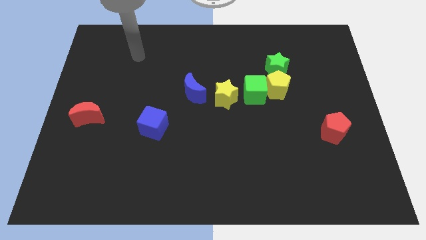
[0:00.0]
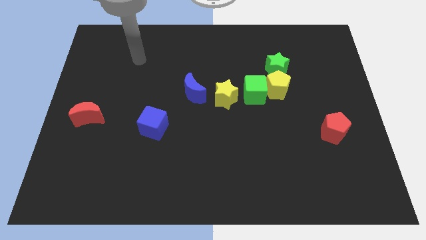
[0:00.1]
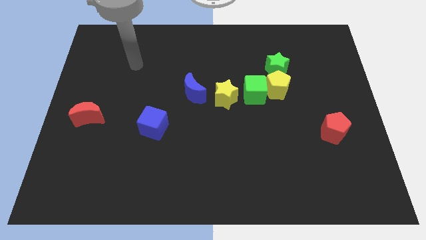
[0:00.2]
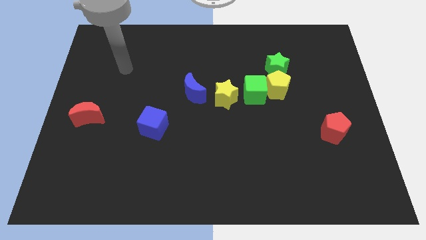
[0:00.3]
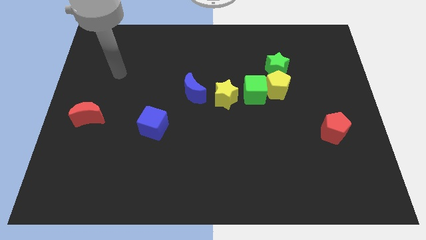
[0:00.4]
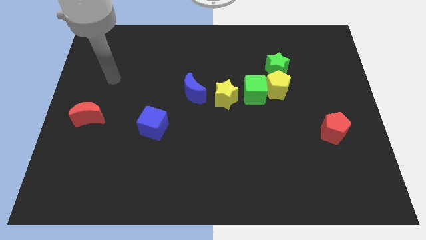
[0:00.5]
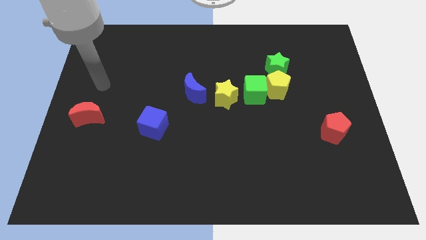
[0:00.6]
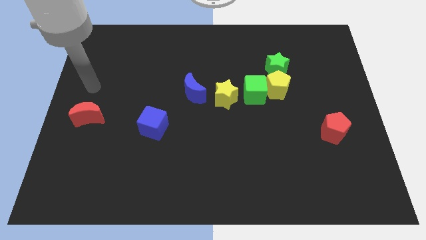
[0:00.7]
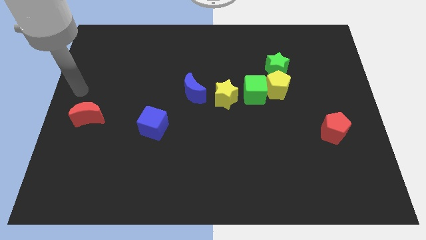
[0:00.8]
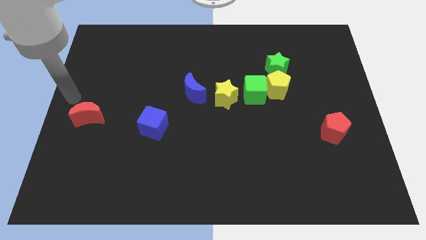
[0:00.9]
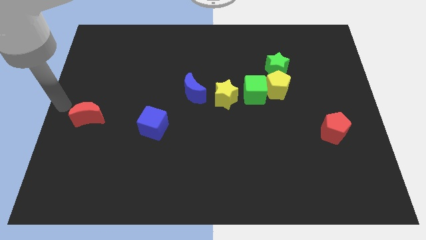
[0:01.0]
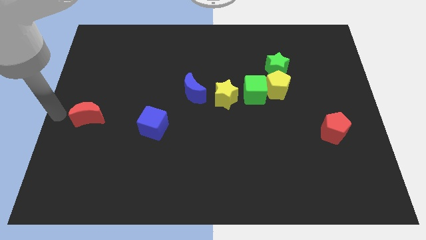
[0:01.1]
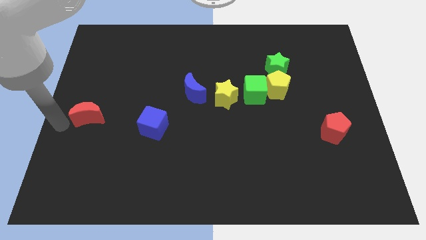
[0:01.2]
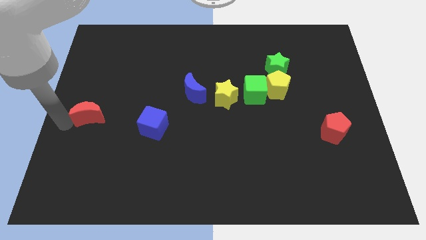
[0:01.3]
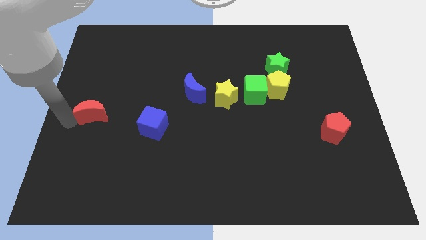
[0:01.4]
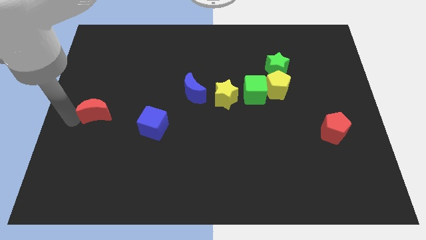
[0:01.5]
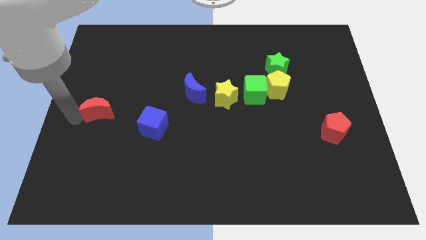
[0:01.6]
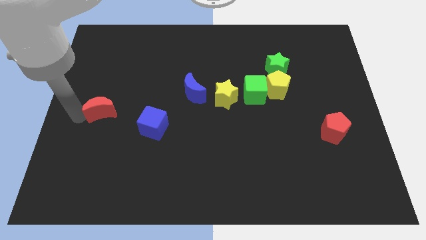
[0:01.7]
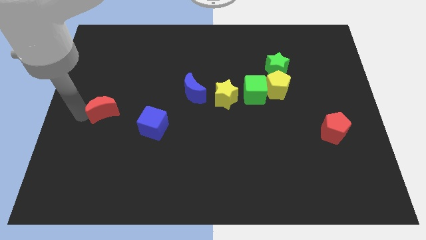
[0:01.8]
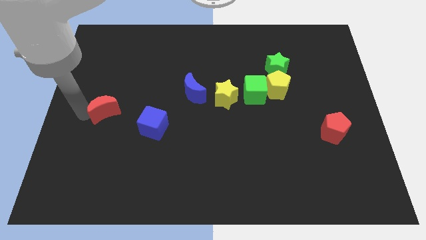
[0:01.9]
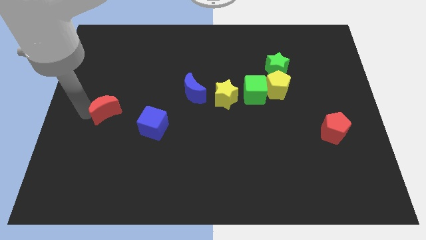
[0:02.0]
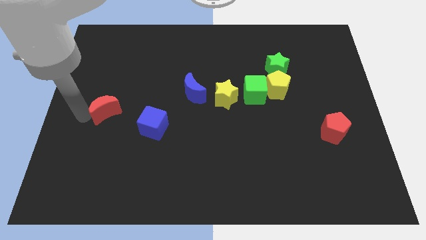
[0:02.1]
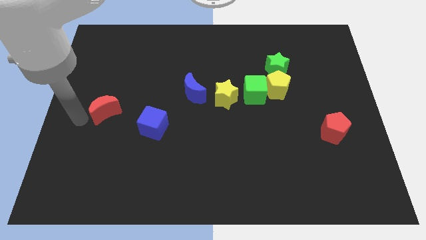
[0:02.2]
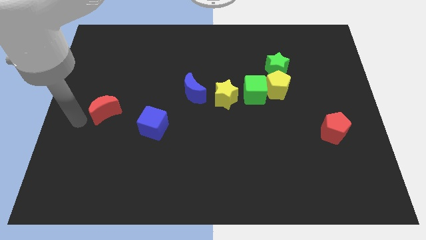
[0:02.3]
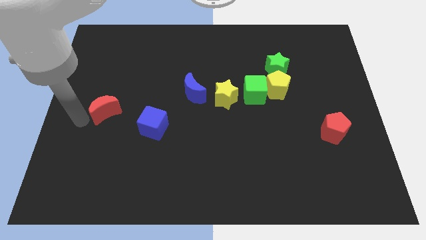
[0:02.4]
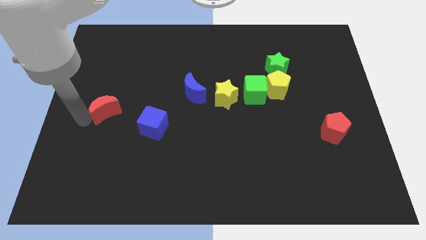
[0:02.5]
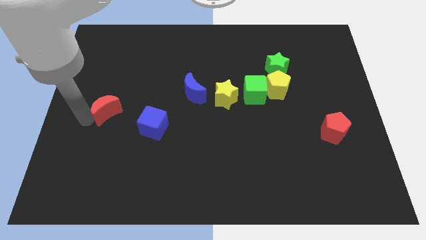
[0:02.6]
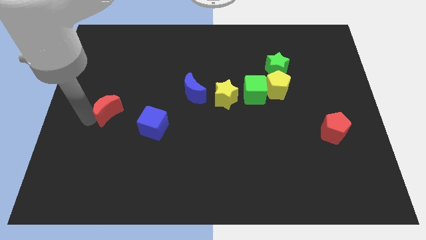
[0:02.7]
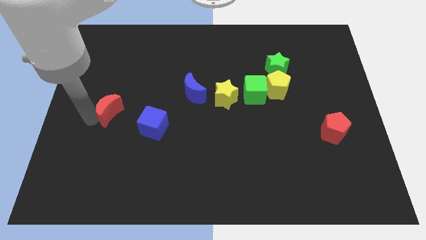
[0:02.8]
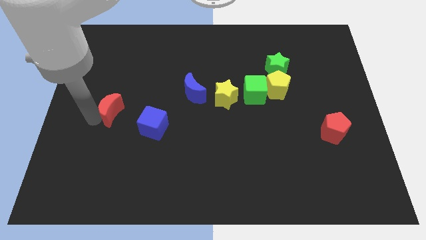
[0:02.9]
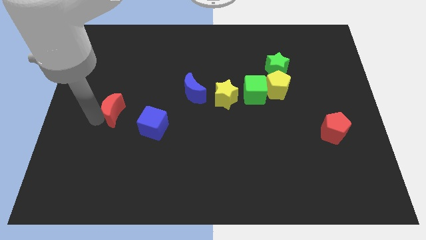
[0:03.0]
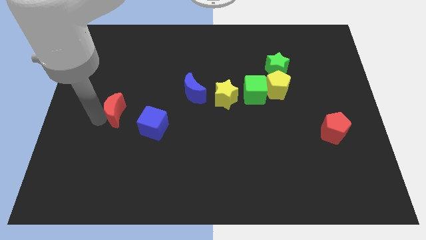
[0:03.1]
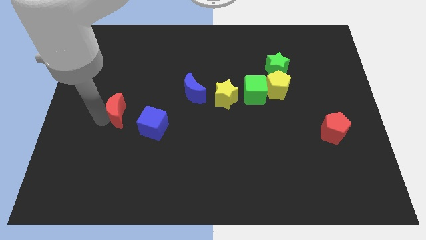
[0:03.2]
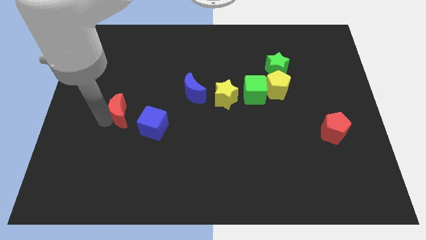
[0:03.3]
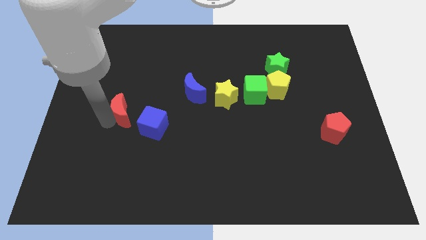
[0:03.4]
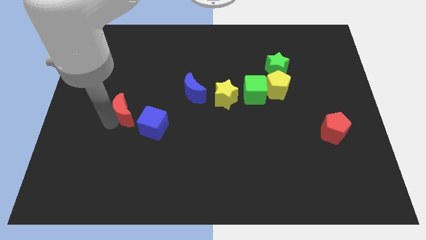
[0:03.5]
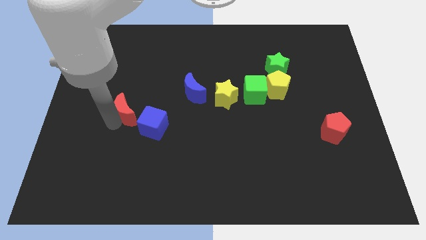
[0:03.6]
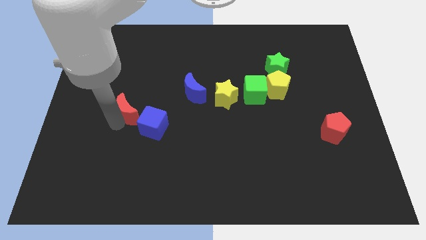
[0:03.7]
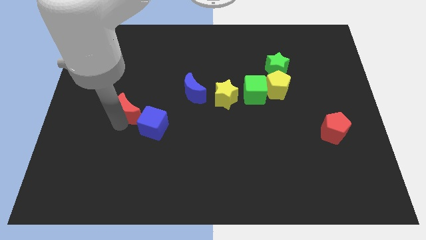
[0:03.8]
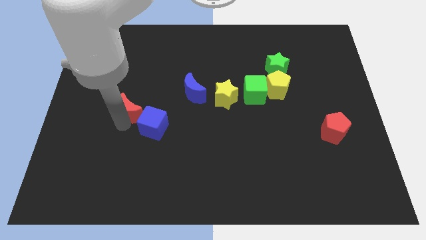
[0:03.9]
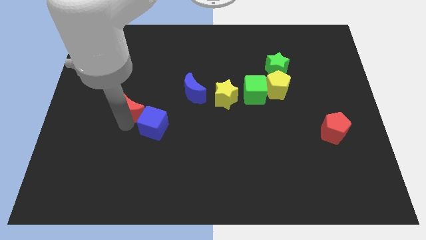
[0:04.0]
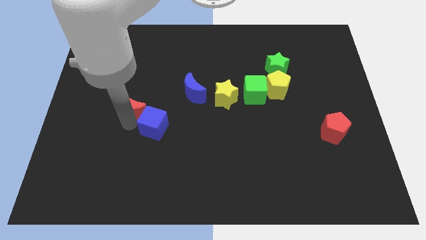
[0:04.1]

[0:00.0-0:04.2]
slightly slide the red moon upwards and right diagonally

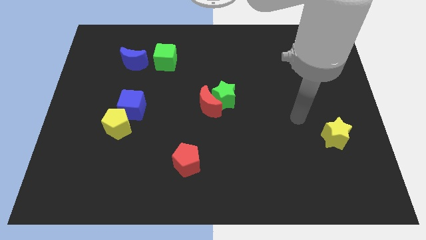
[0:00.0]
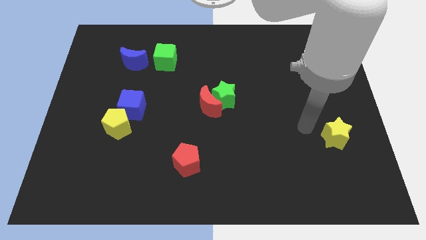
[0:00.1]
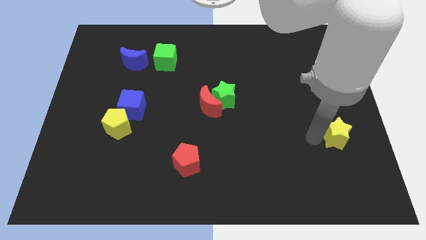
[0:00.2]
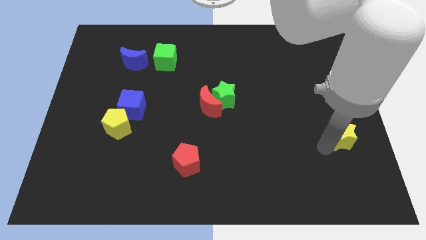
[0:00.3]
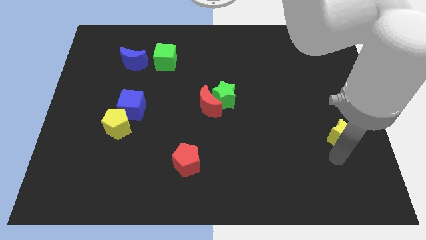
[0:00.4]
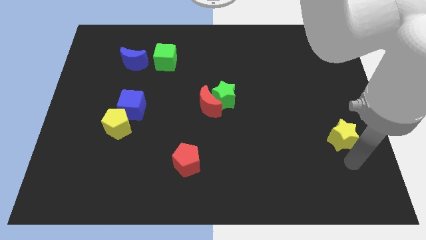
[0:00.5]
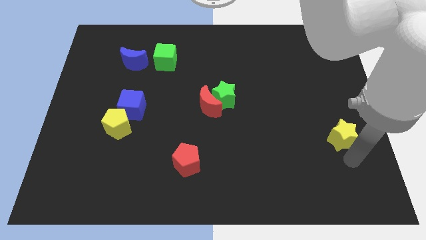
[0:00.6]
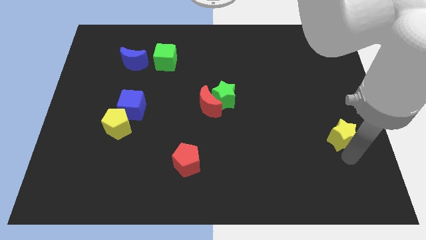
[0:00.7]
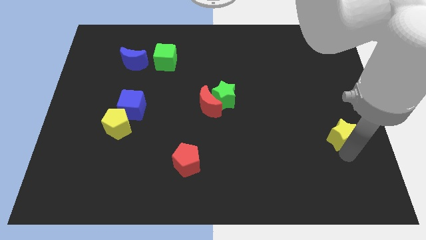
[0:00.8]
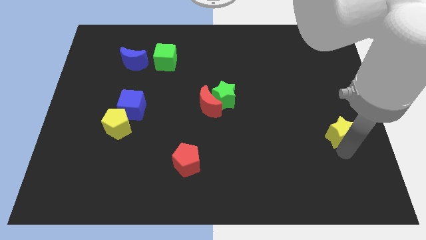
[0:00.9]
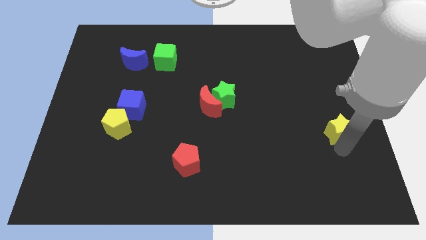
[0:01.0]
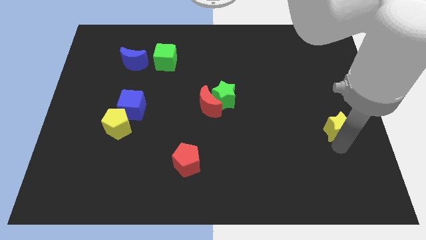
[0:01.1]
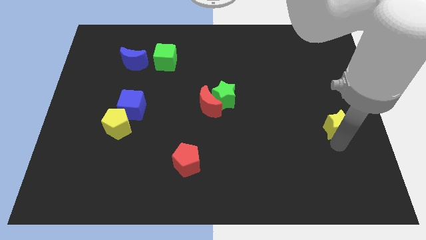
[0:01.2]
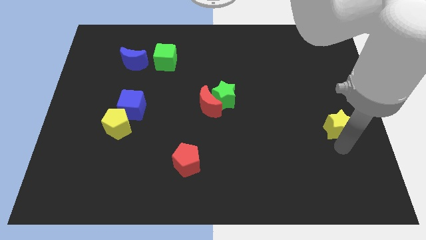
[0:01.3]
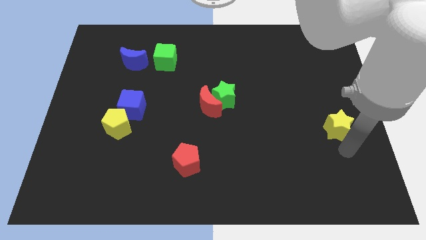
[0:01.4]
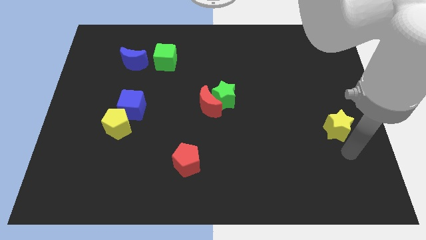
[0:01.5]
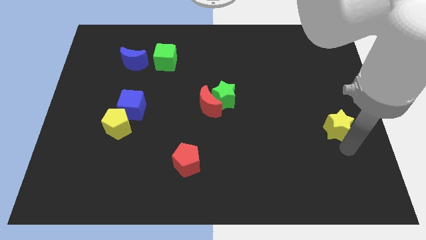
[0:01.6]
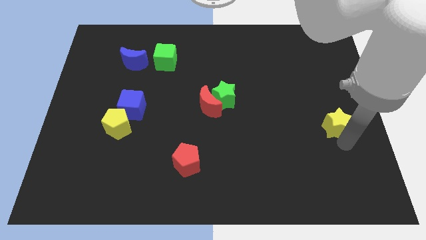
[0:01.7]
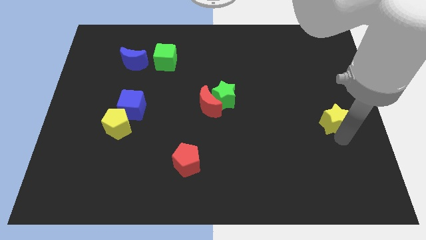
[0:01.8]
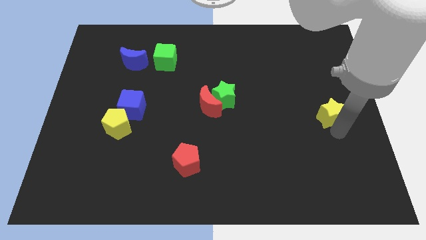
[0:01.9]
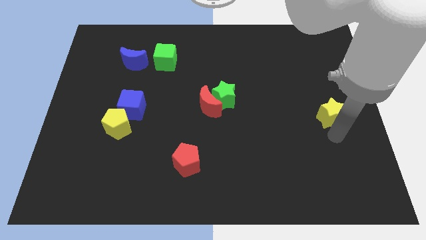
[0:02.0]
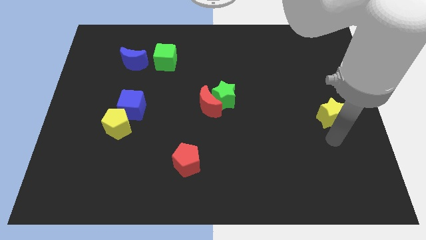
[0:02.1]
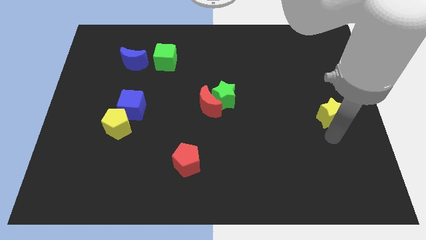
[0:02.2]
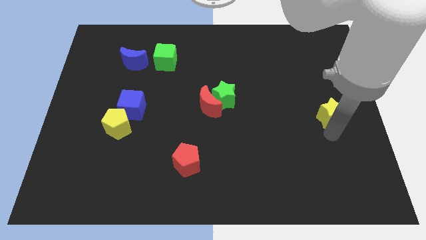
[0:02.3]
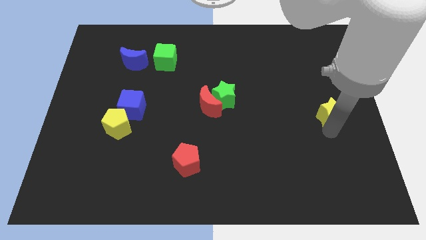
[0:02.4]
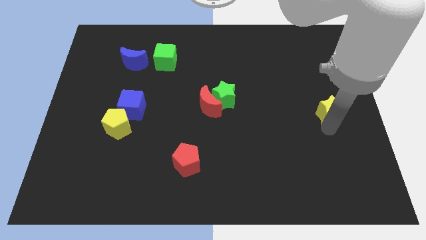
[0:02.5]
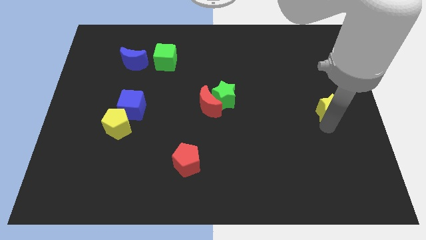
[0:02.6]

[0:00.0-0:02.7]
move the yellow star up a bit

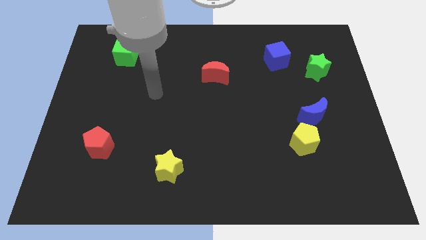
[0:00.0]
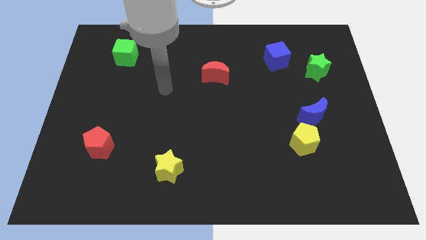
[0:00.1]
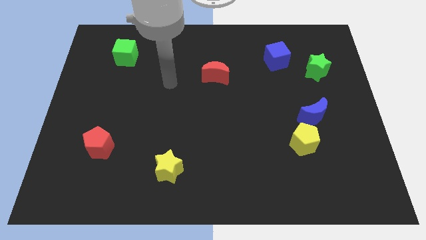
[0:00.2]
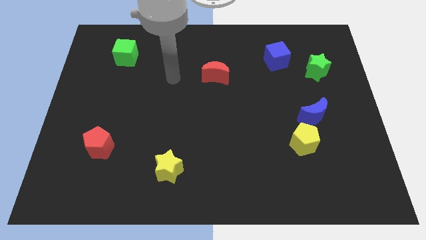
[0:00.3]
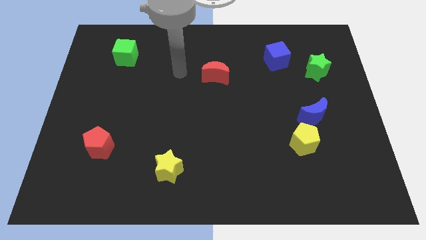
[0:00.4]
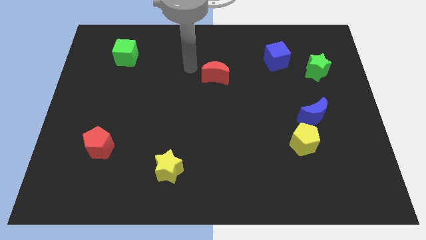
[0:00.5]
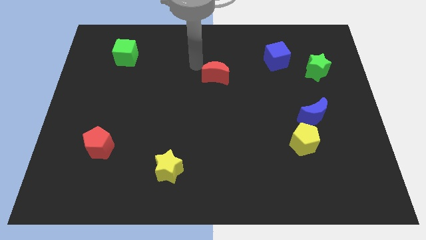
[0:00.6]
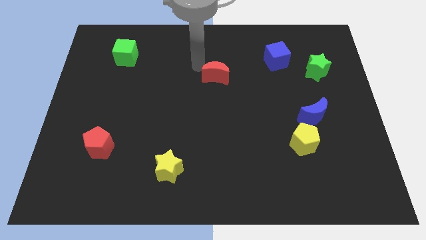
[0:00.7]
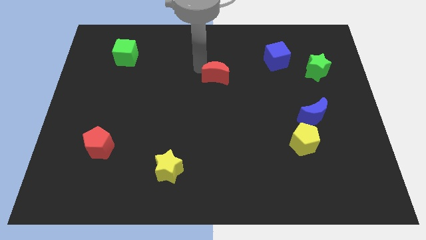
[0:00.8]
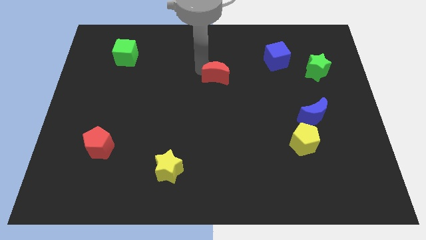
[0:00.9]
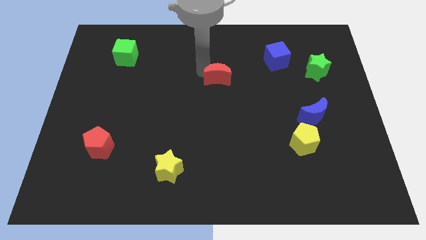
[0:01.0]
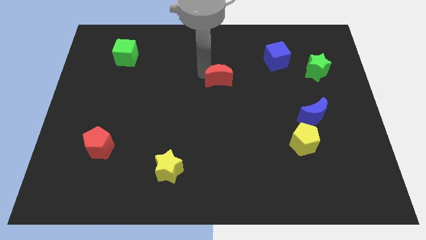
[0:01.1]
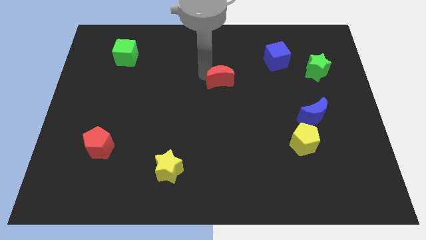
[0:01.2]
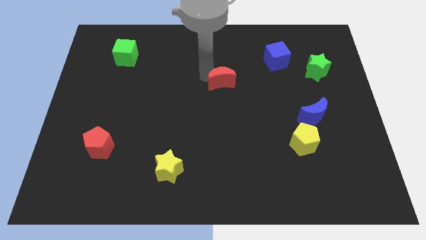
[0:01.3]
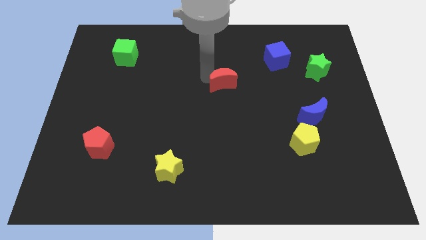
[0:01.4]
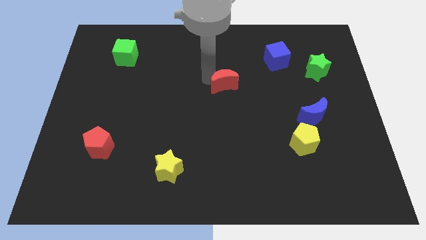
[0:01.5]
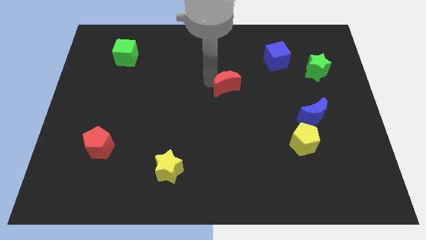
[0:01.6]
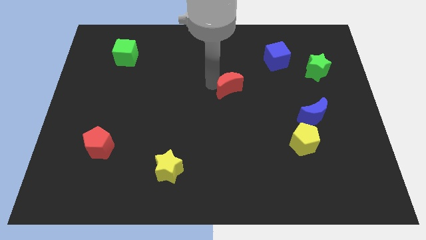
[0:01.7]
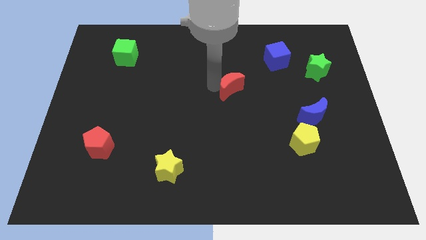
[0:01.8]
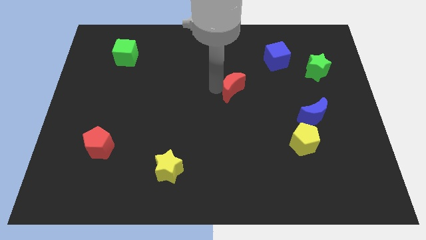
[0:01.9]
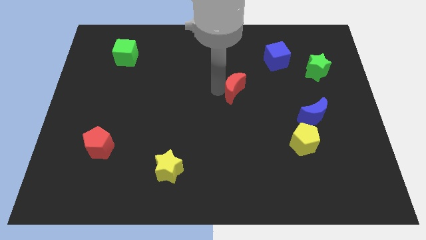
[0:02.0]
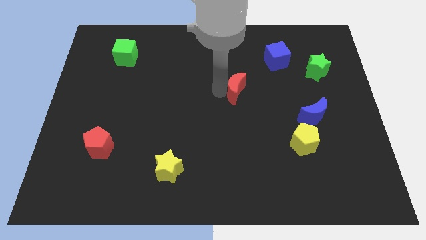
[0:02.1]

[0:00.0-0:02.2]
move the red moon a bit diagonally down and right
